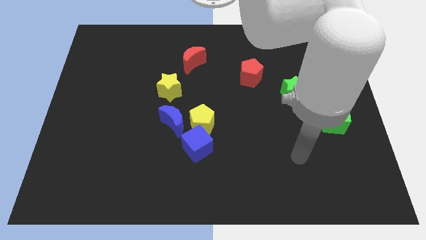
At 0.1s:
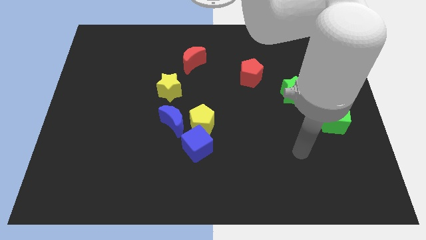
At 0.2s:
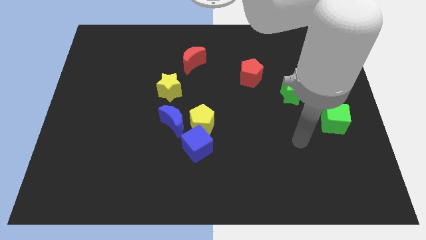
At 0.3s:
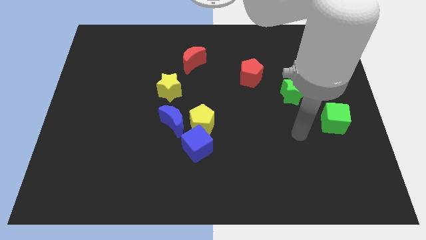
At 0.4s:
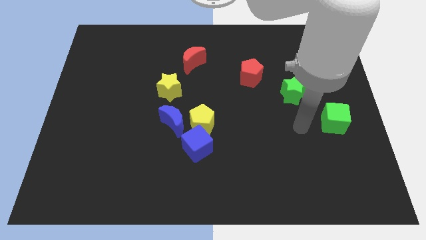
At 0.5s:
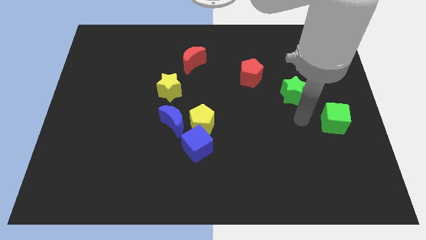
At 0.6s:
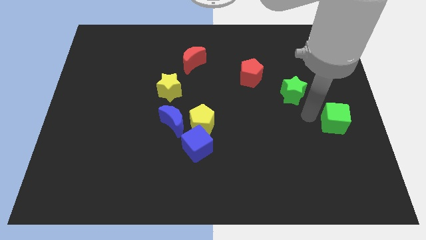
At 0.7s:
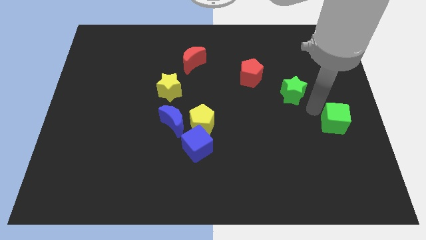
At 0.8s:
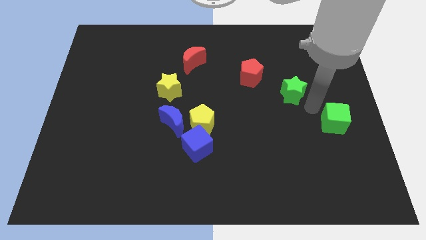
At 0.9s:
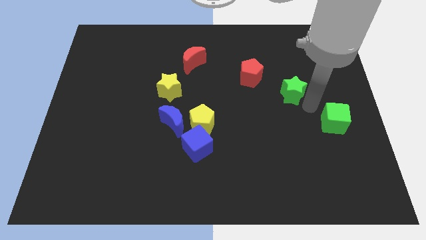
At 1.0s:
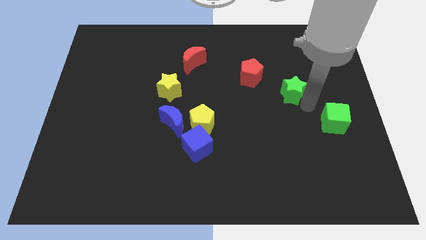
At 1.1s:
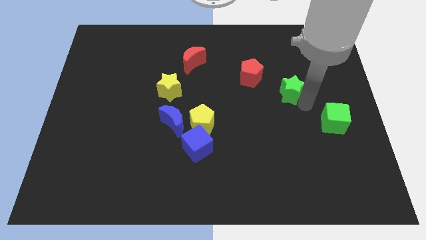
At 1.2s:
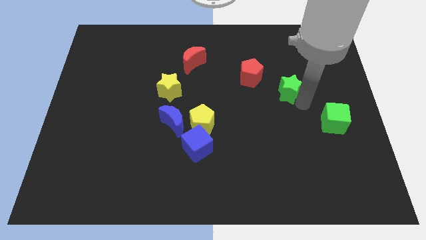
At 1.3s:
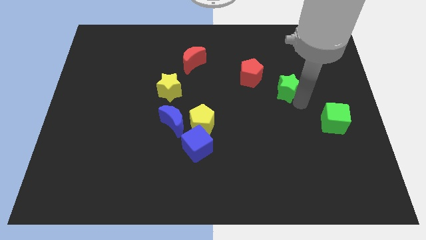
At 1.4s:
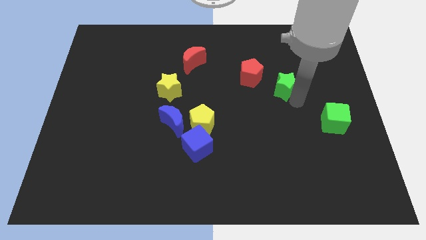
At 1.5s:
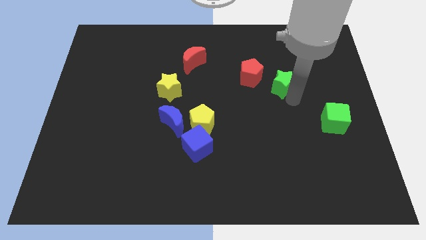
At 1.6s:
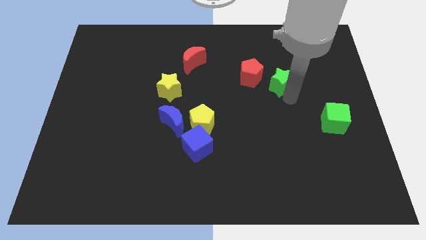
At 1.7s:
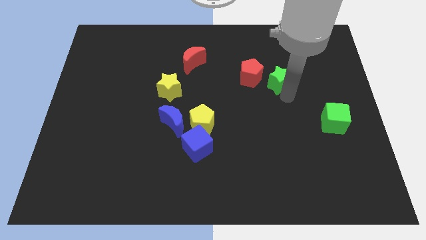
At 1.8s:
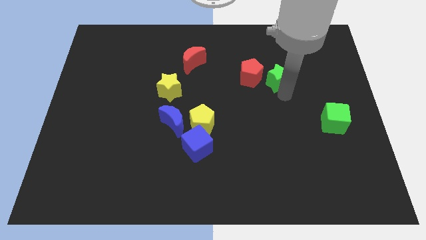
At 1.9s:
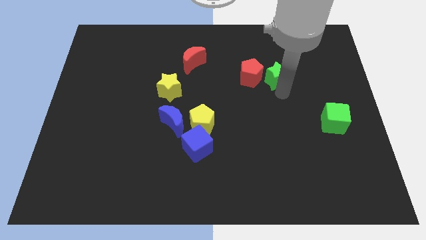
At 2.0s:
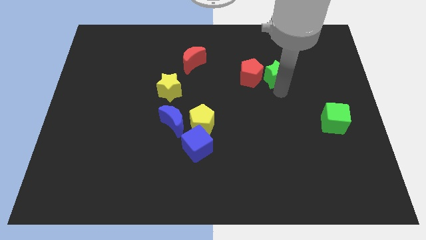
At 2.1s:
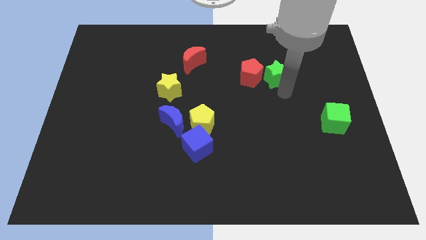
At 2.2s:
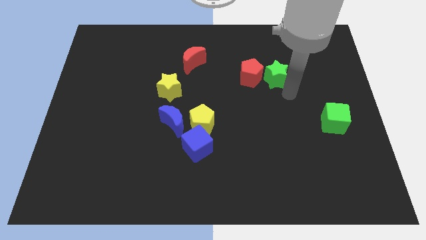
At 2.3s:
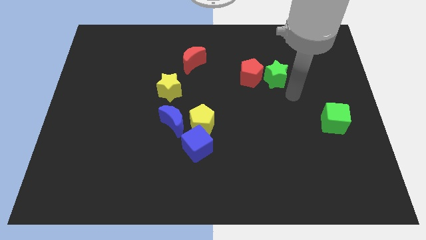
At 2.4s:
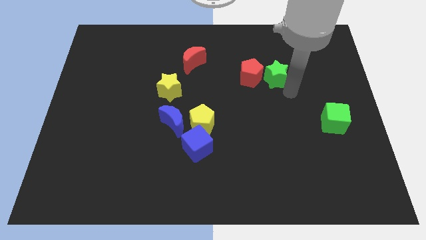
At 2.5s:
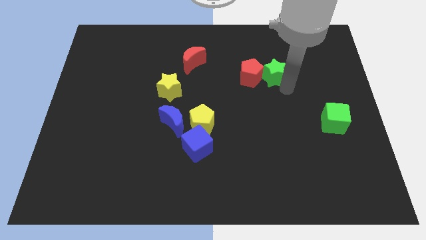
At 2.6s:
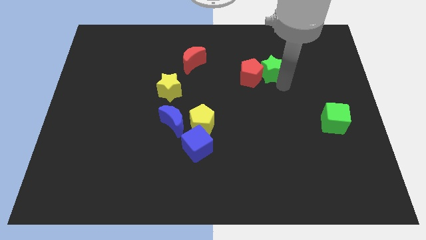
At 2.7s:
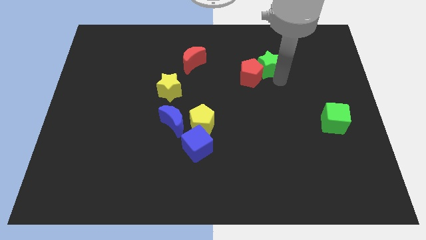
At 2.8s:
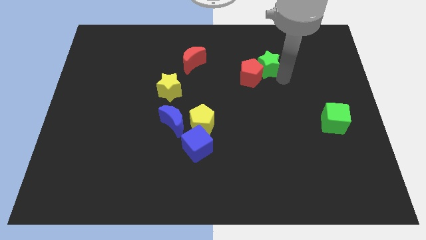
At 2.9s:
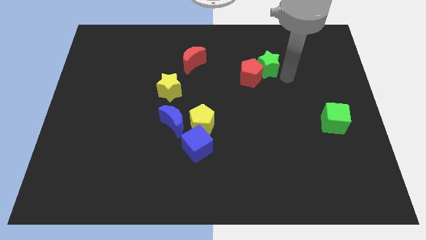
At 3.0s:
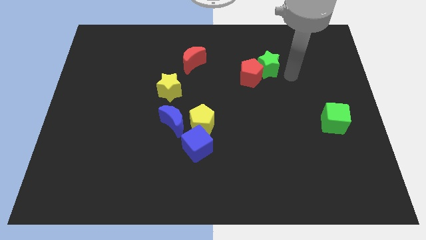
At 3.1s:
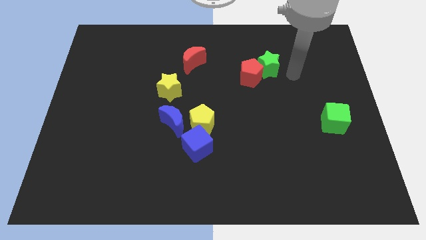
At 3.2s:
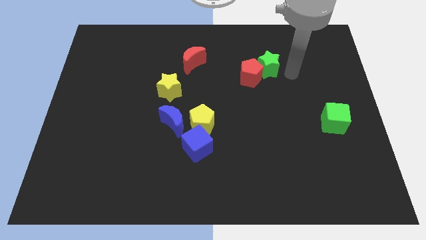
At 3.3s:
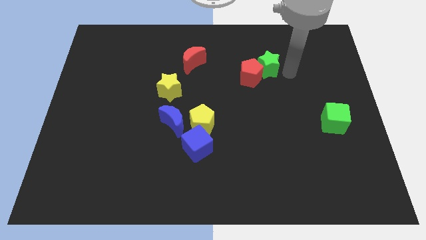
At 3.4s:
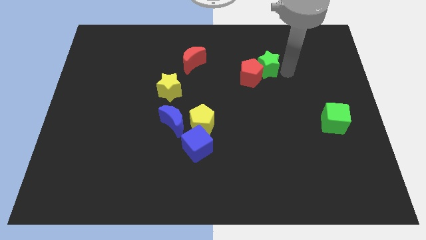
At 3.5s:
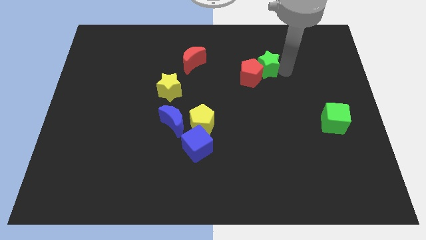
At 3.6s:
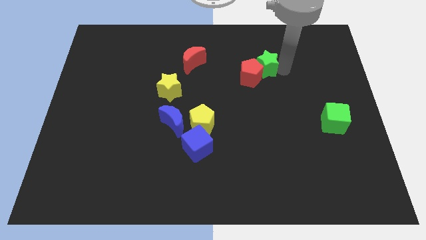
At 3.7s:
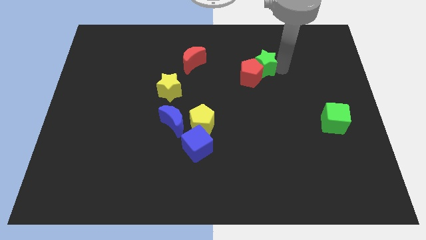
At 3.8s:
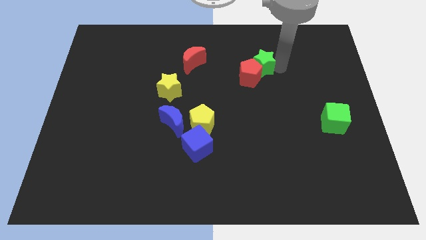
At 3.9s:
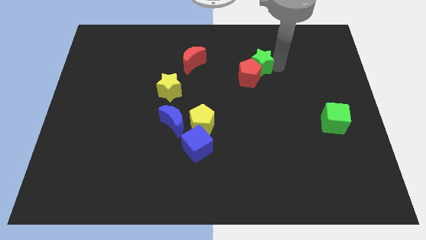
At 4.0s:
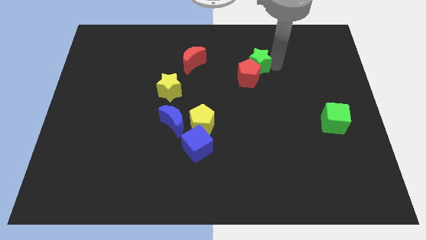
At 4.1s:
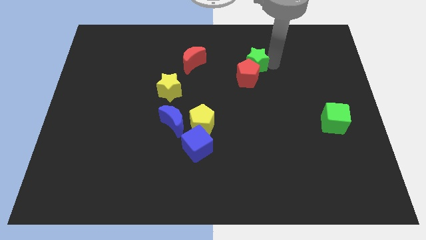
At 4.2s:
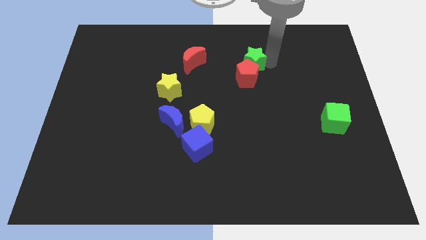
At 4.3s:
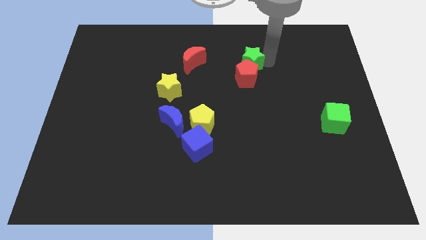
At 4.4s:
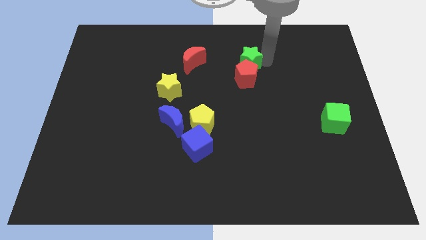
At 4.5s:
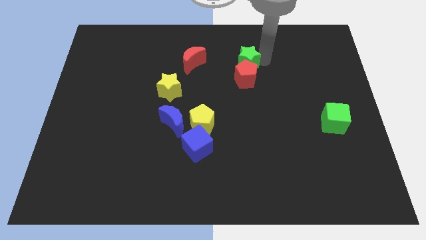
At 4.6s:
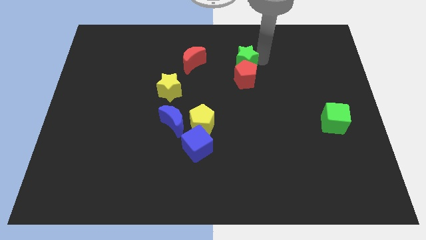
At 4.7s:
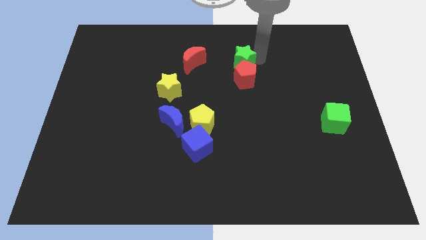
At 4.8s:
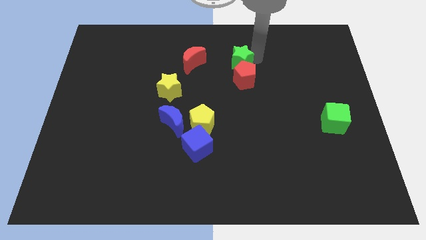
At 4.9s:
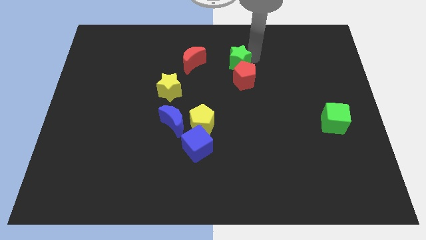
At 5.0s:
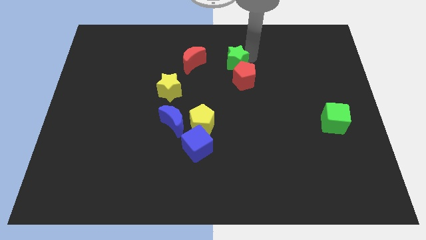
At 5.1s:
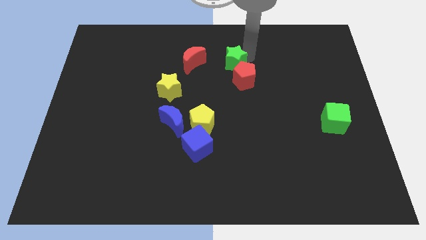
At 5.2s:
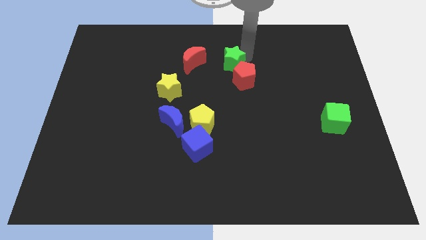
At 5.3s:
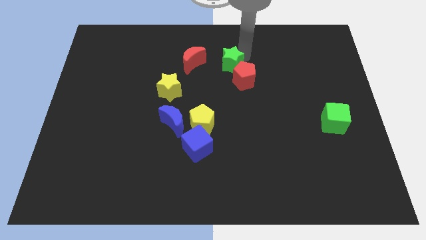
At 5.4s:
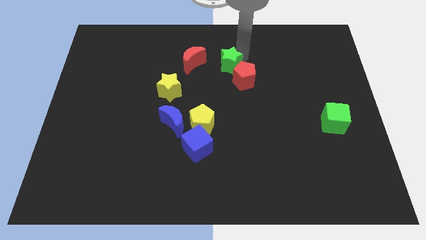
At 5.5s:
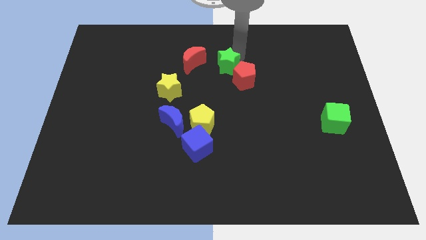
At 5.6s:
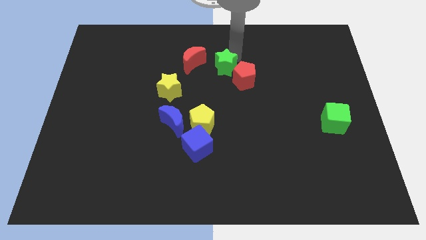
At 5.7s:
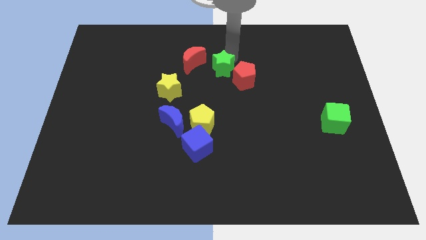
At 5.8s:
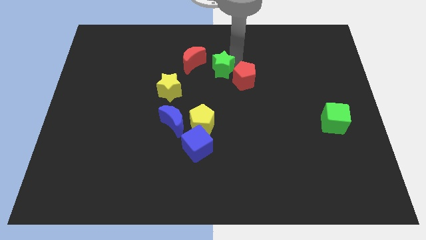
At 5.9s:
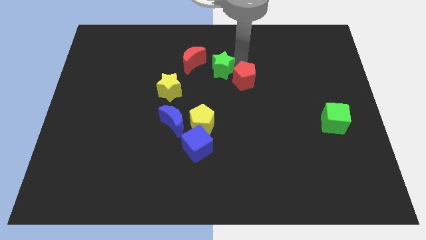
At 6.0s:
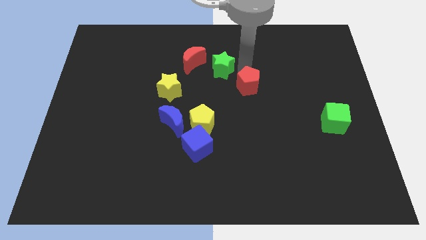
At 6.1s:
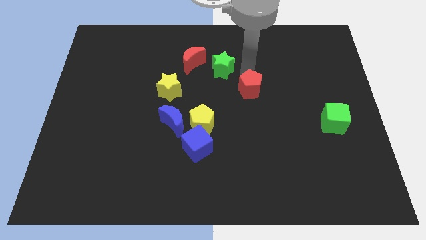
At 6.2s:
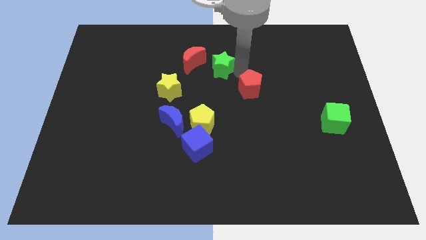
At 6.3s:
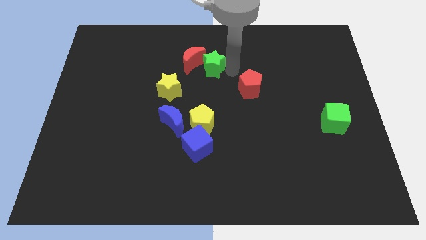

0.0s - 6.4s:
push the green star close to the red moon

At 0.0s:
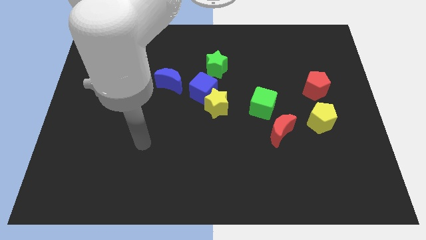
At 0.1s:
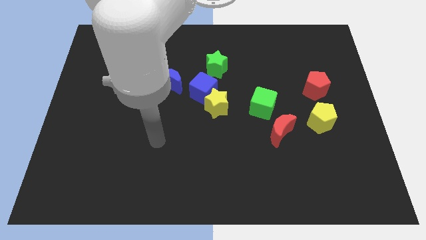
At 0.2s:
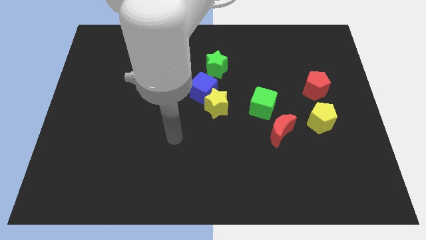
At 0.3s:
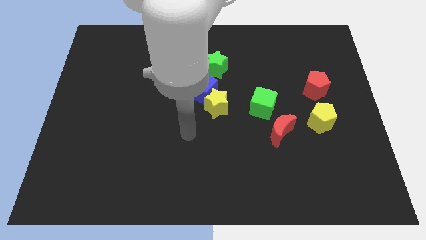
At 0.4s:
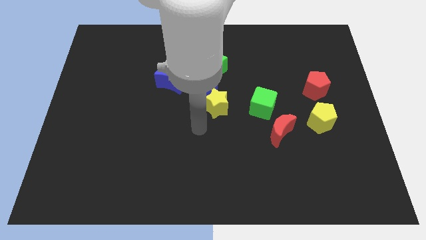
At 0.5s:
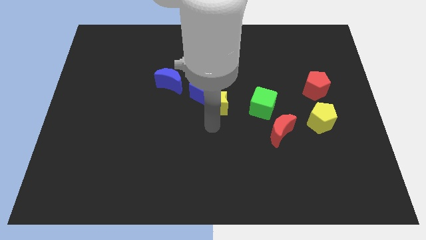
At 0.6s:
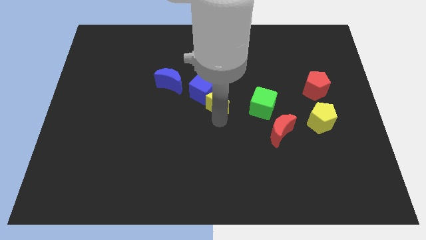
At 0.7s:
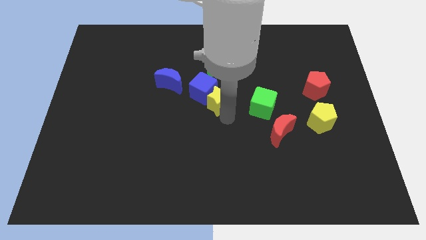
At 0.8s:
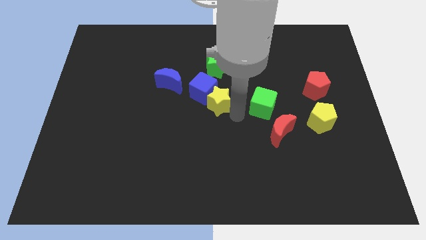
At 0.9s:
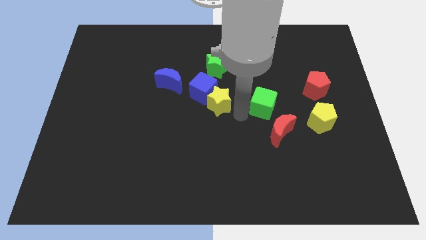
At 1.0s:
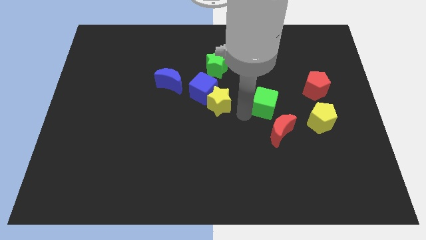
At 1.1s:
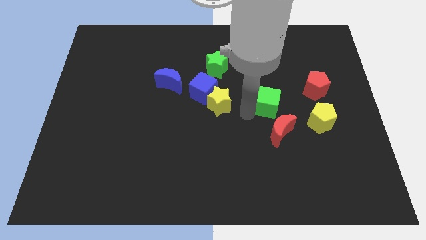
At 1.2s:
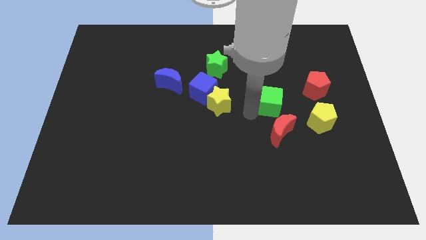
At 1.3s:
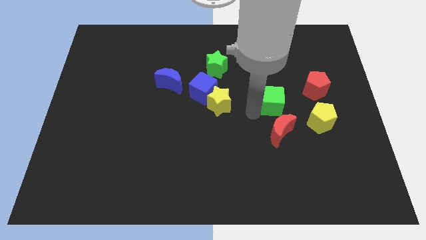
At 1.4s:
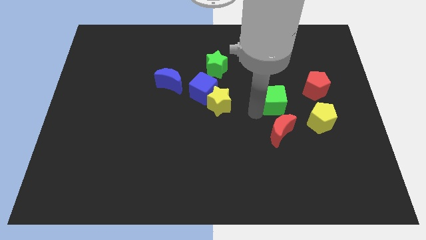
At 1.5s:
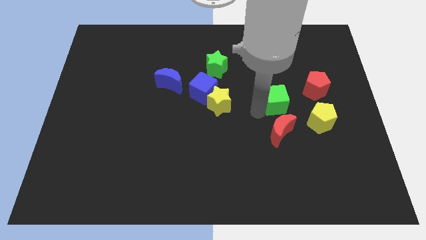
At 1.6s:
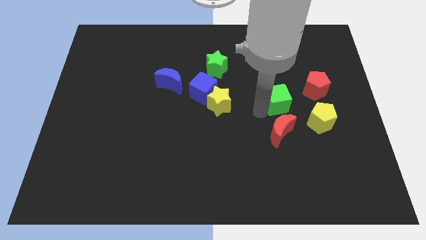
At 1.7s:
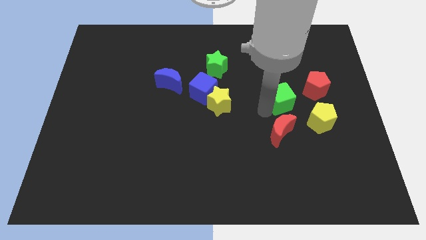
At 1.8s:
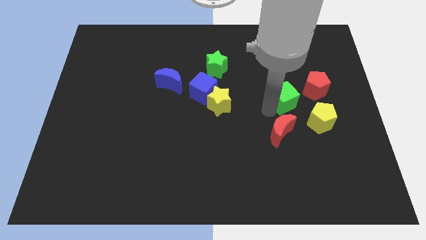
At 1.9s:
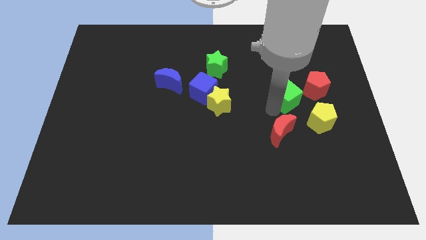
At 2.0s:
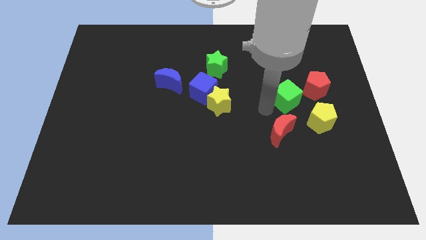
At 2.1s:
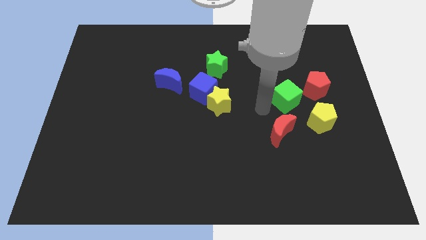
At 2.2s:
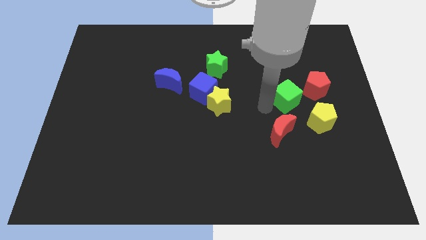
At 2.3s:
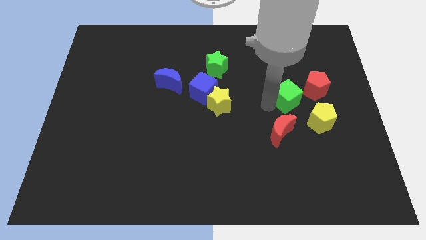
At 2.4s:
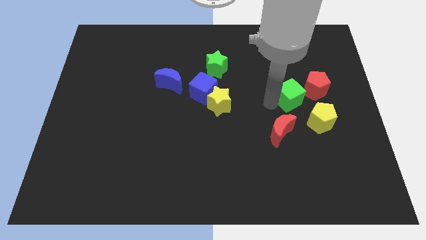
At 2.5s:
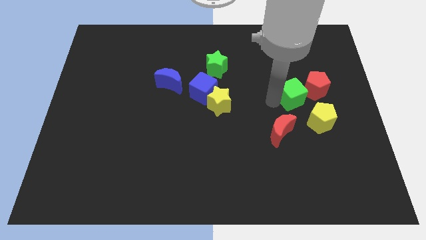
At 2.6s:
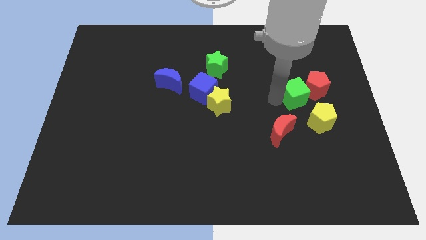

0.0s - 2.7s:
slide the green cube close to the red pentagon
